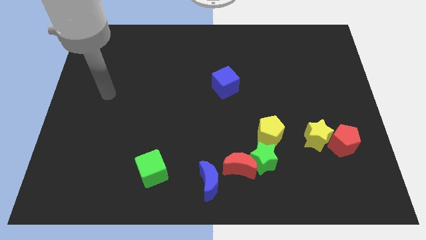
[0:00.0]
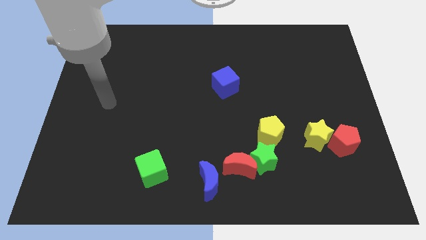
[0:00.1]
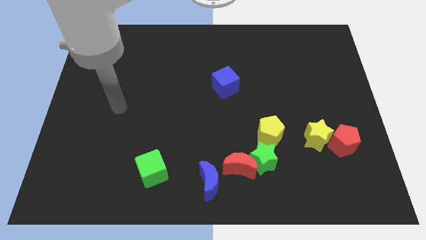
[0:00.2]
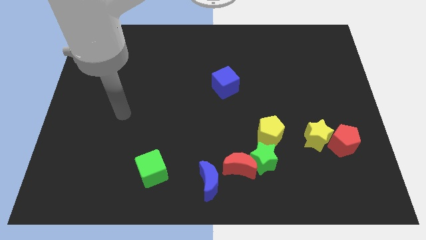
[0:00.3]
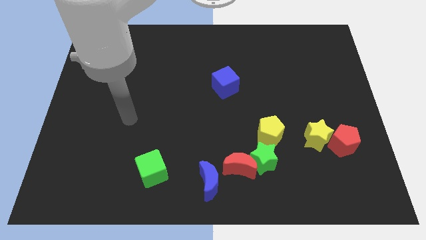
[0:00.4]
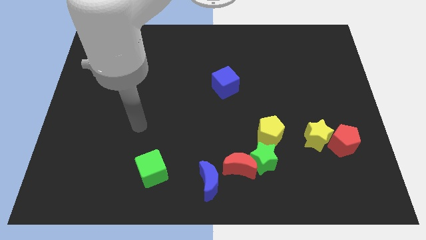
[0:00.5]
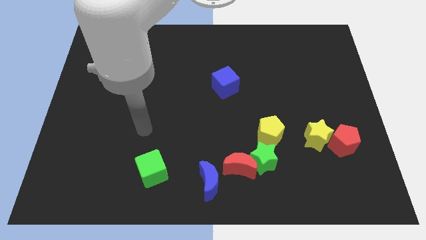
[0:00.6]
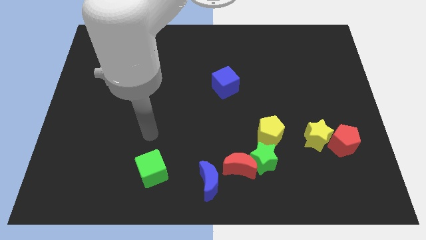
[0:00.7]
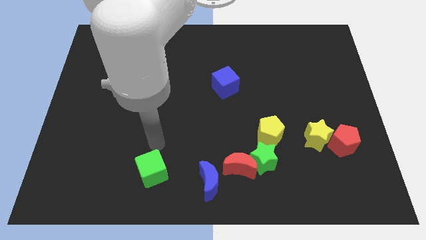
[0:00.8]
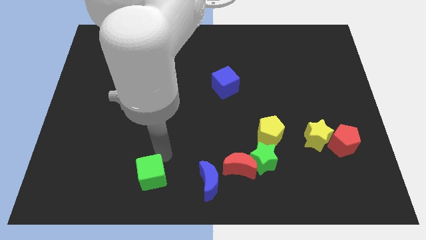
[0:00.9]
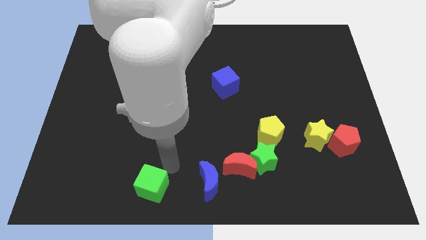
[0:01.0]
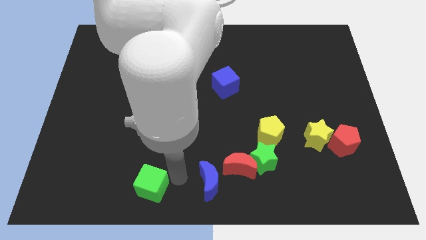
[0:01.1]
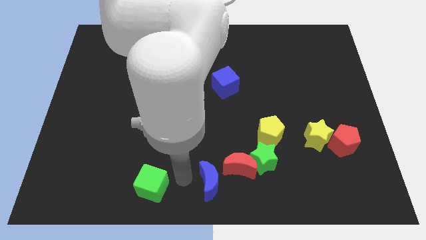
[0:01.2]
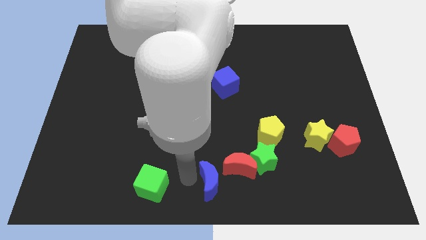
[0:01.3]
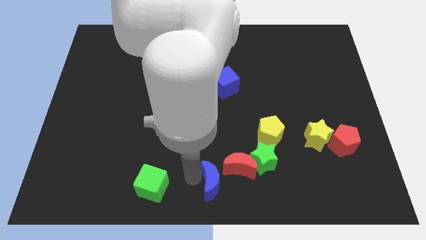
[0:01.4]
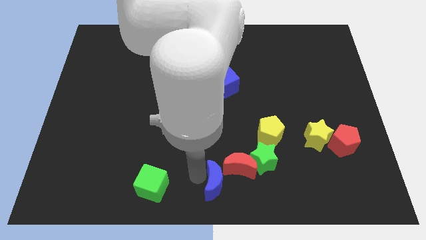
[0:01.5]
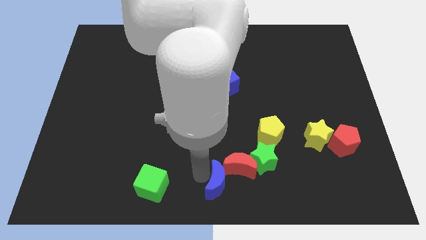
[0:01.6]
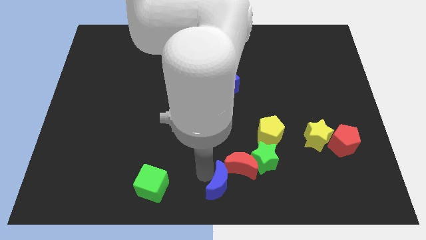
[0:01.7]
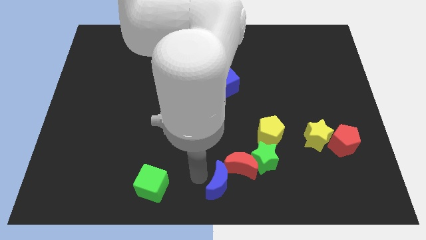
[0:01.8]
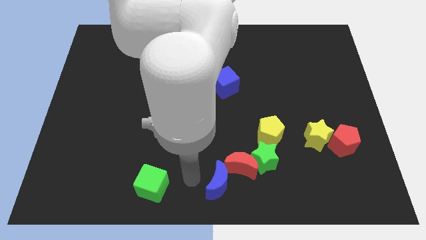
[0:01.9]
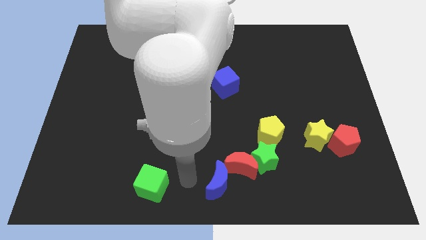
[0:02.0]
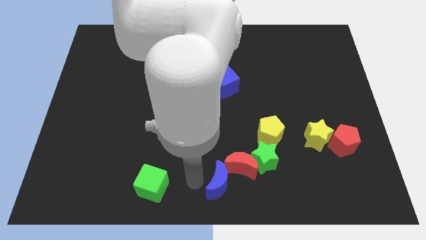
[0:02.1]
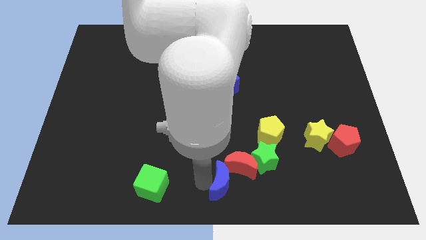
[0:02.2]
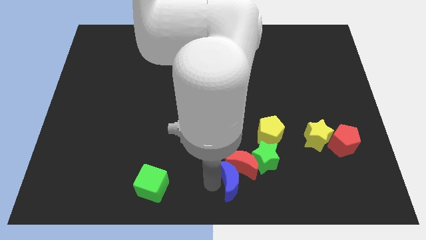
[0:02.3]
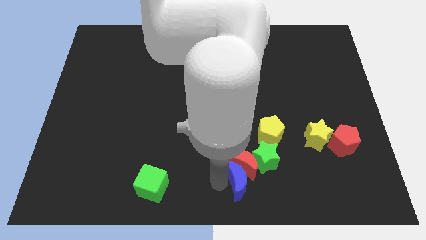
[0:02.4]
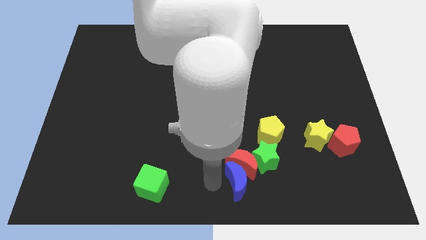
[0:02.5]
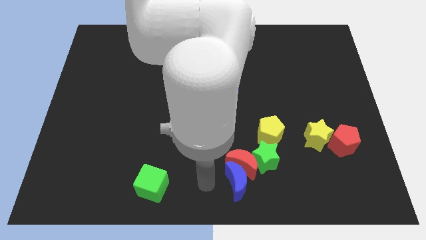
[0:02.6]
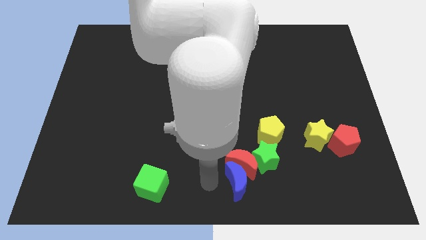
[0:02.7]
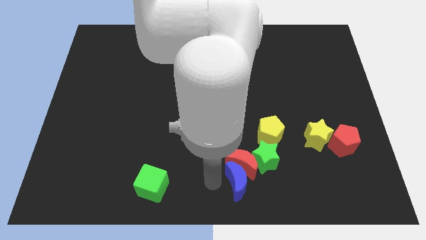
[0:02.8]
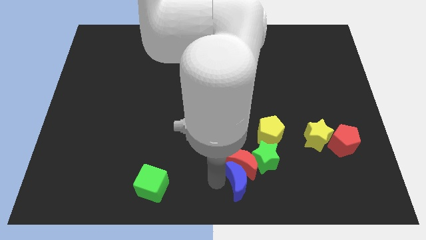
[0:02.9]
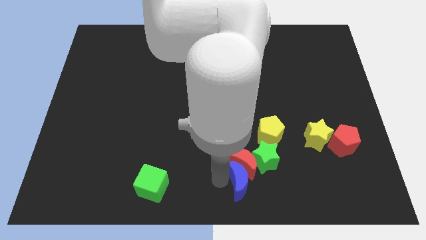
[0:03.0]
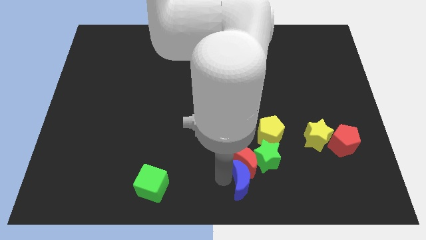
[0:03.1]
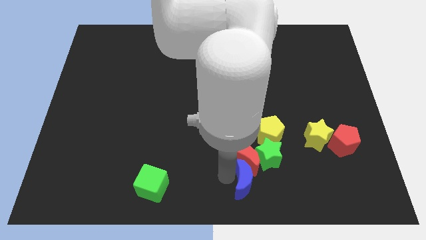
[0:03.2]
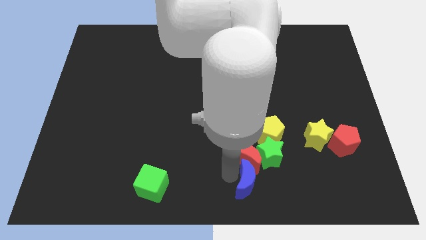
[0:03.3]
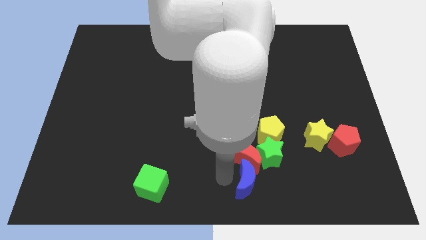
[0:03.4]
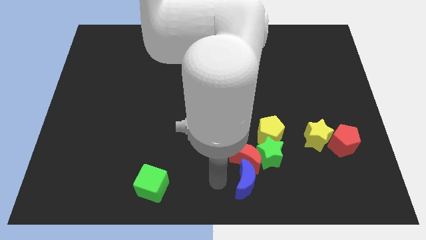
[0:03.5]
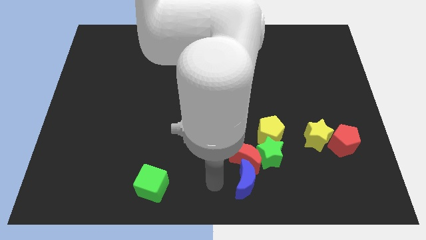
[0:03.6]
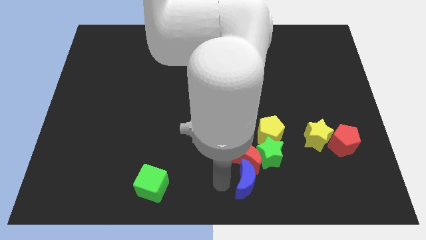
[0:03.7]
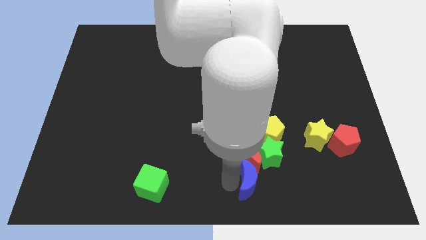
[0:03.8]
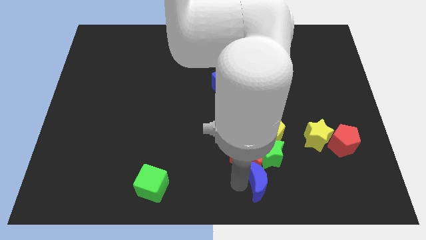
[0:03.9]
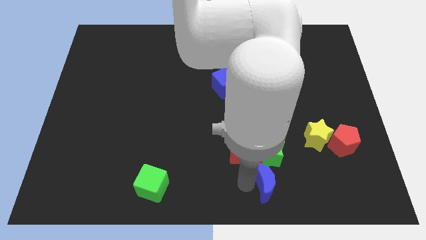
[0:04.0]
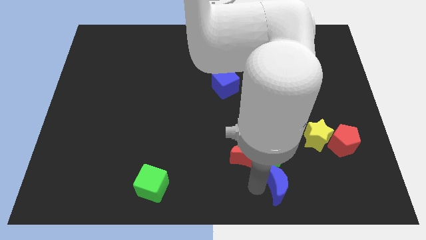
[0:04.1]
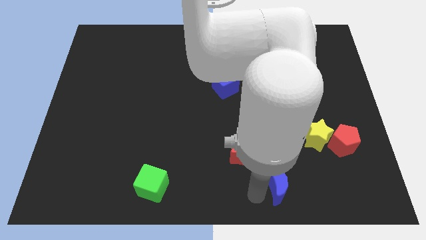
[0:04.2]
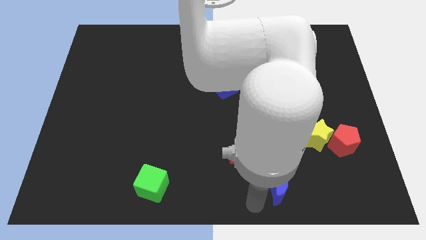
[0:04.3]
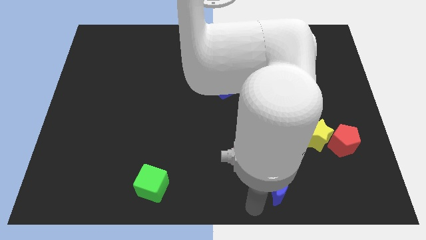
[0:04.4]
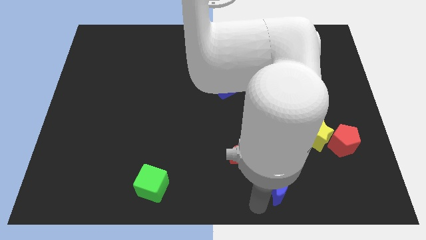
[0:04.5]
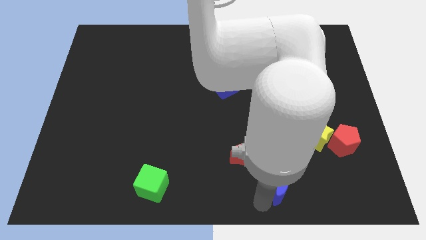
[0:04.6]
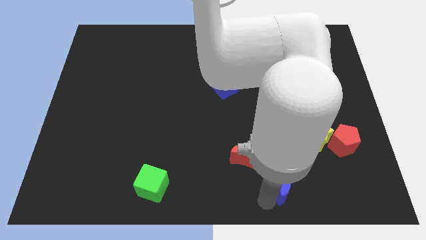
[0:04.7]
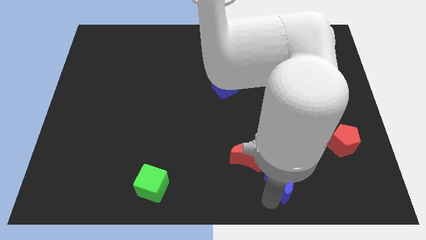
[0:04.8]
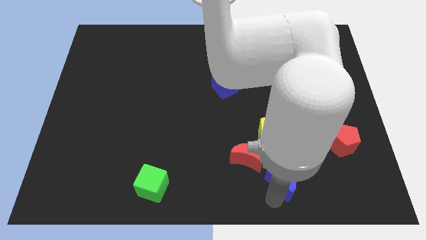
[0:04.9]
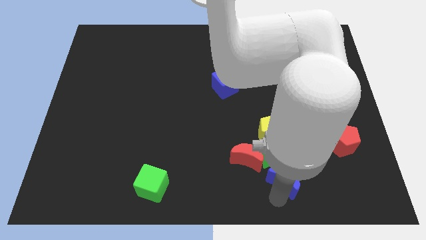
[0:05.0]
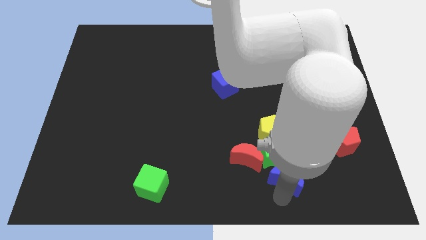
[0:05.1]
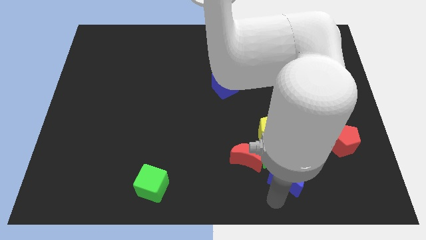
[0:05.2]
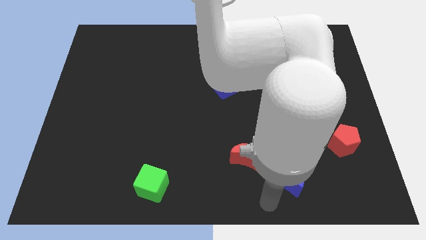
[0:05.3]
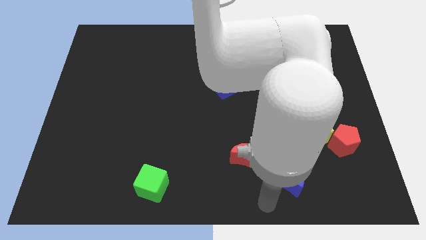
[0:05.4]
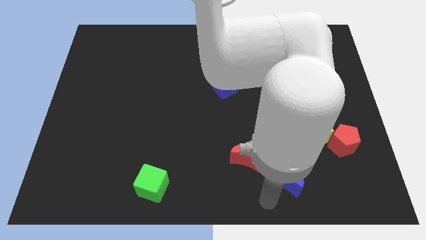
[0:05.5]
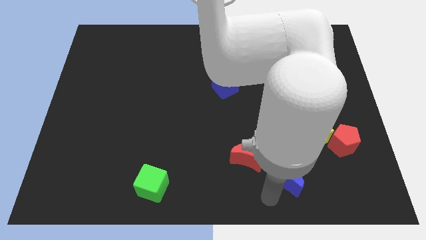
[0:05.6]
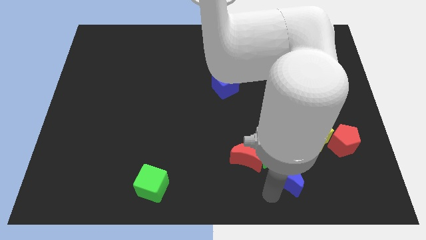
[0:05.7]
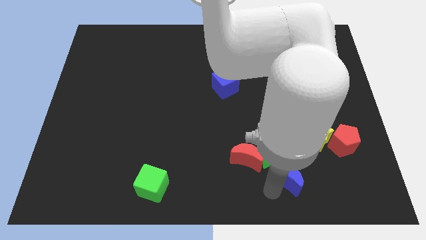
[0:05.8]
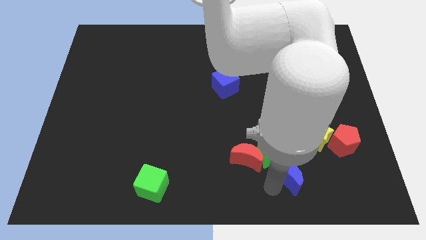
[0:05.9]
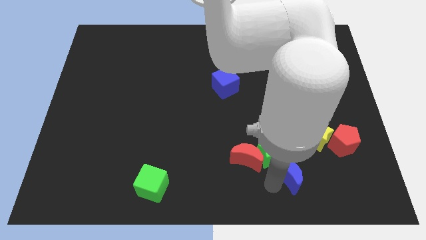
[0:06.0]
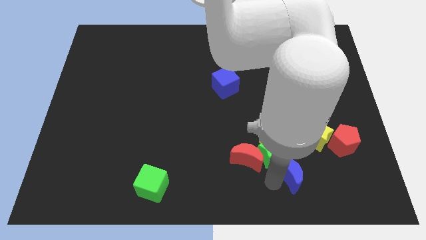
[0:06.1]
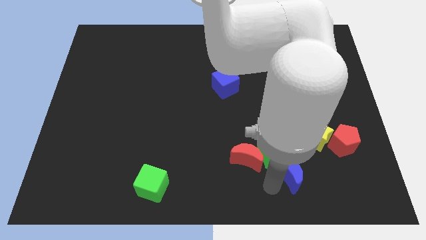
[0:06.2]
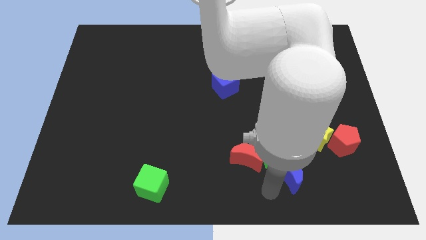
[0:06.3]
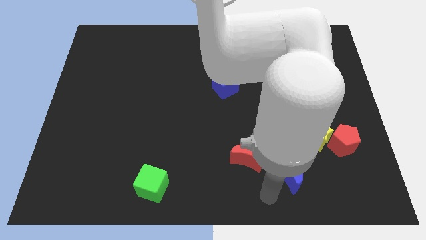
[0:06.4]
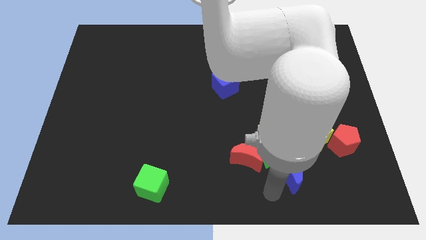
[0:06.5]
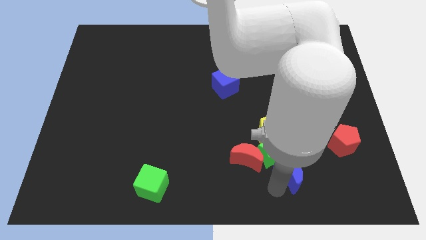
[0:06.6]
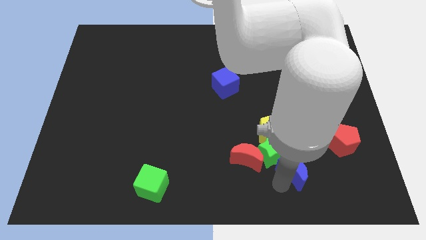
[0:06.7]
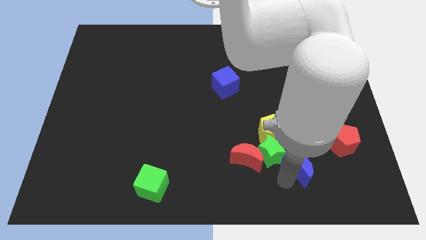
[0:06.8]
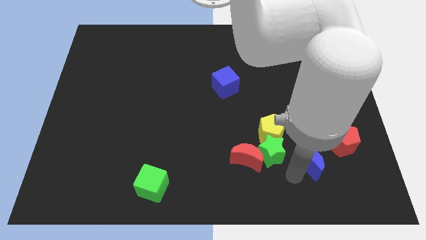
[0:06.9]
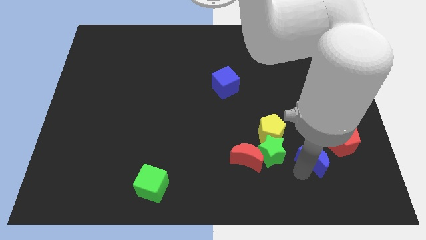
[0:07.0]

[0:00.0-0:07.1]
slide the blue moon towards the yellow star
